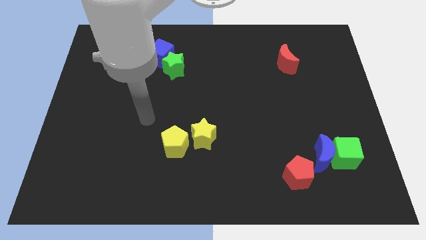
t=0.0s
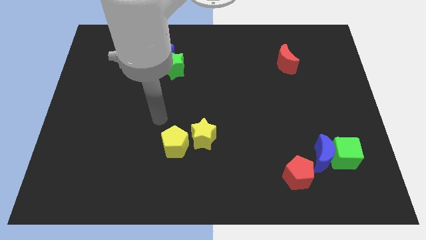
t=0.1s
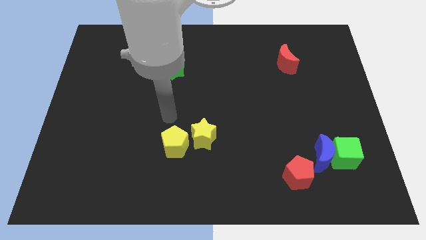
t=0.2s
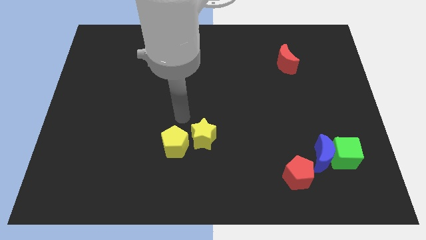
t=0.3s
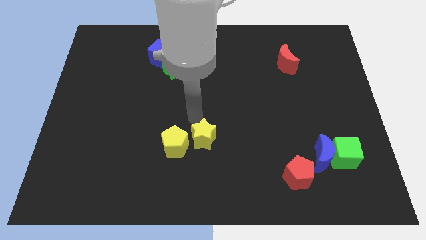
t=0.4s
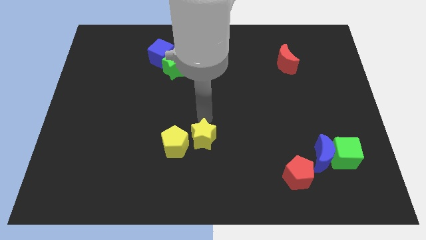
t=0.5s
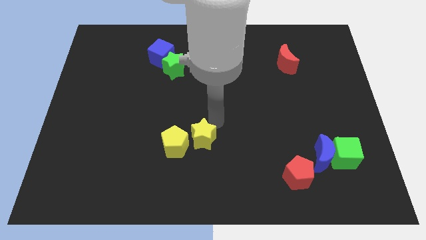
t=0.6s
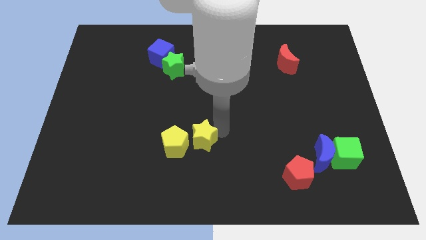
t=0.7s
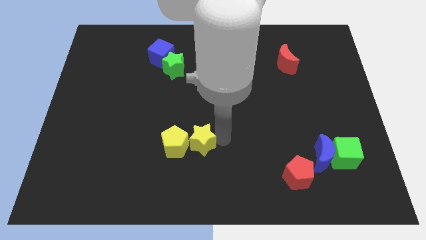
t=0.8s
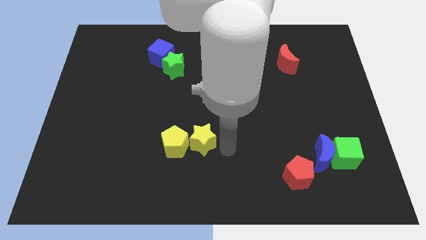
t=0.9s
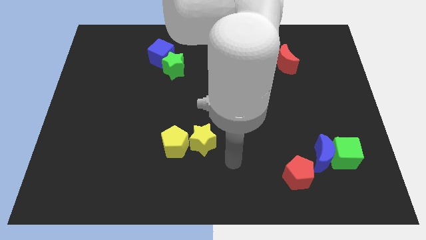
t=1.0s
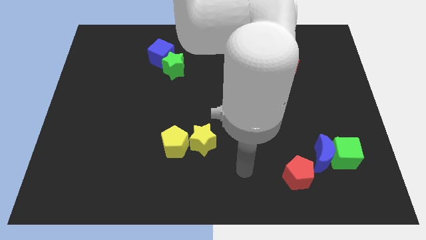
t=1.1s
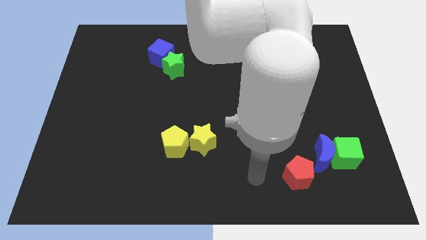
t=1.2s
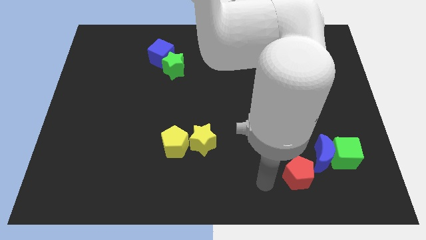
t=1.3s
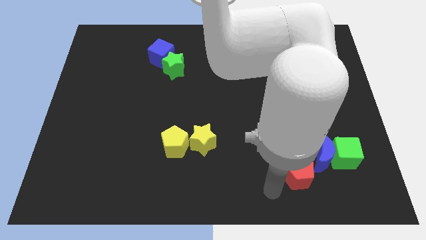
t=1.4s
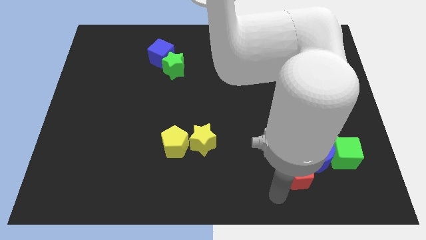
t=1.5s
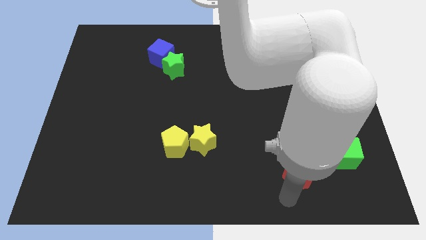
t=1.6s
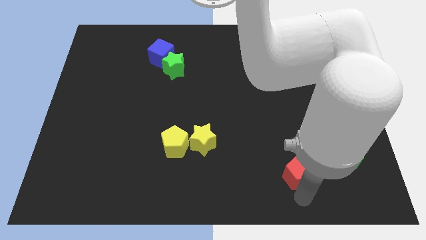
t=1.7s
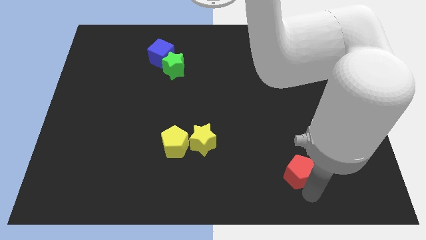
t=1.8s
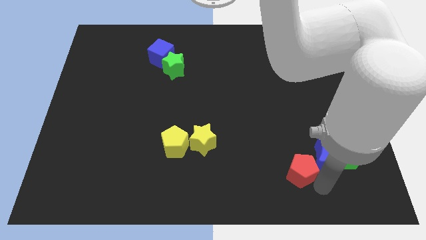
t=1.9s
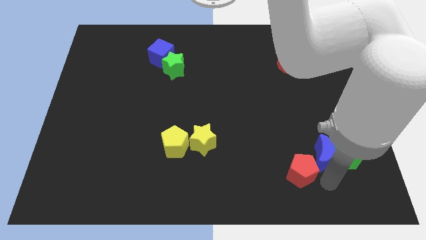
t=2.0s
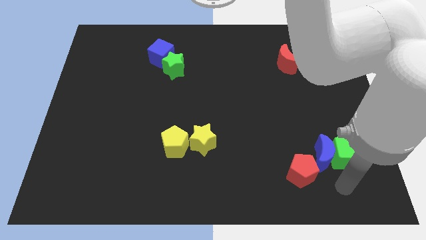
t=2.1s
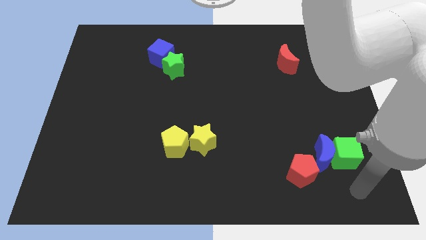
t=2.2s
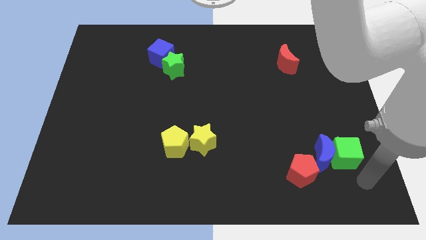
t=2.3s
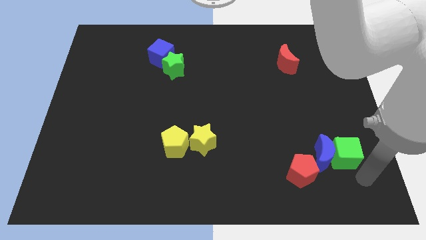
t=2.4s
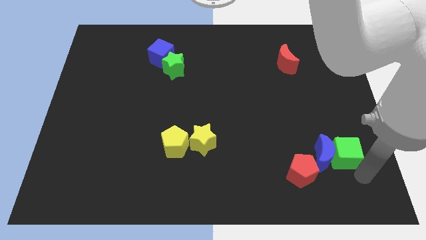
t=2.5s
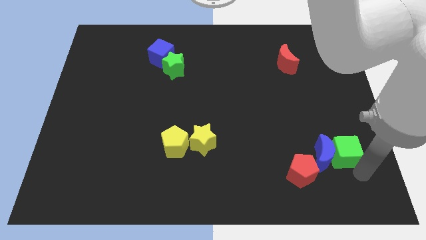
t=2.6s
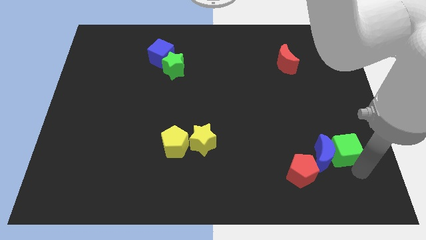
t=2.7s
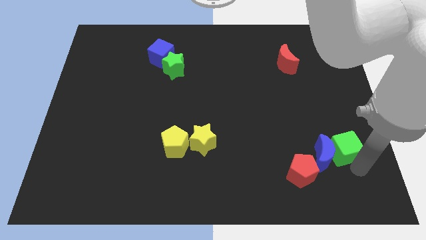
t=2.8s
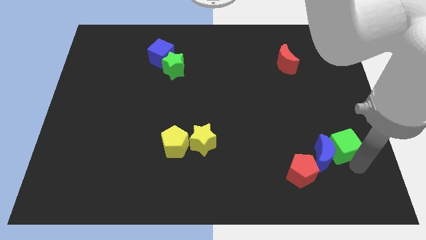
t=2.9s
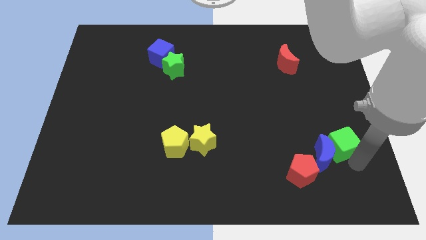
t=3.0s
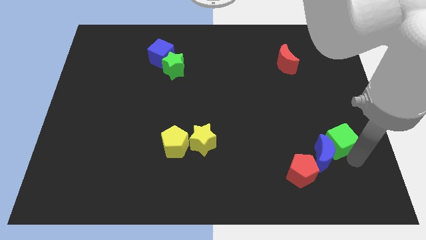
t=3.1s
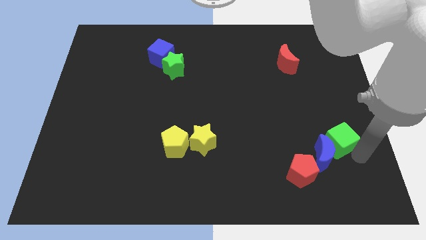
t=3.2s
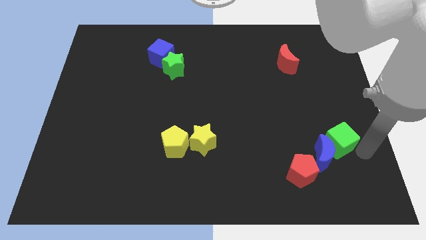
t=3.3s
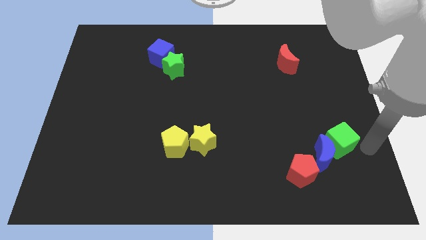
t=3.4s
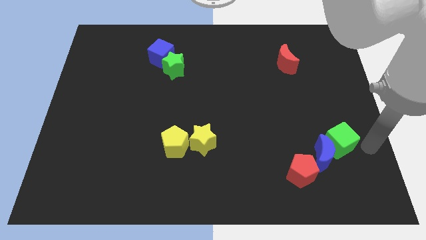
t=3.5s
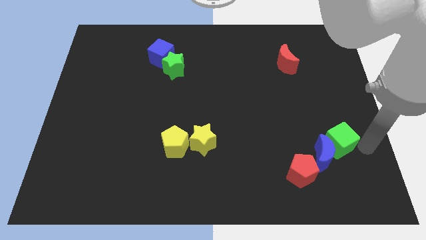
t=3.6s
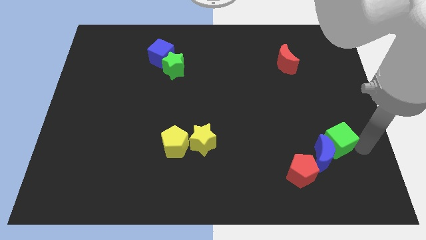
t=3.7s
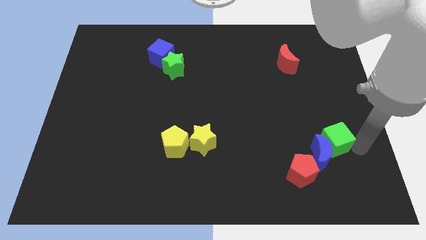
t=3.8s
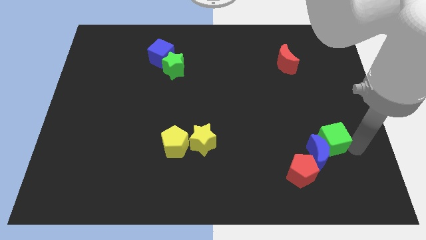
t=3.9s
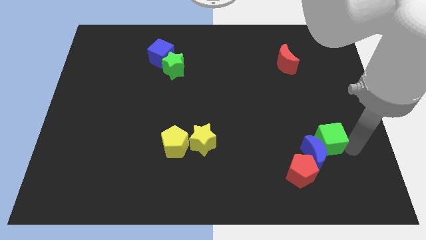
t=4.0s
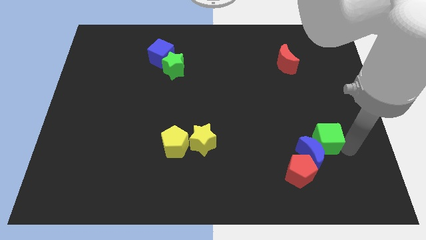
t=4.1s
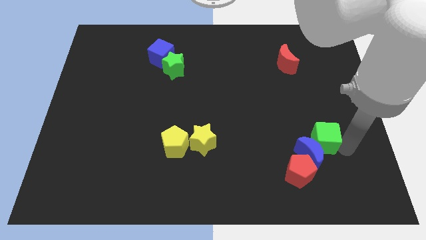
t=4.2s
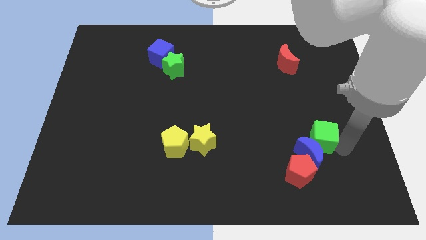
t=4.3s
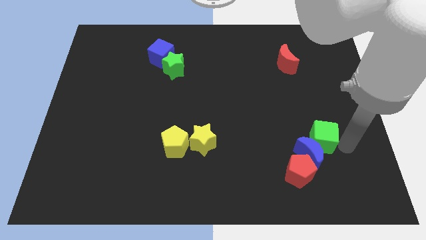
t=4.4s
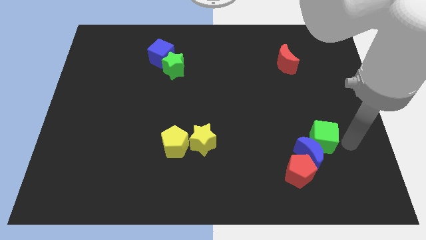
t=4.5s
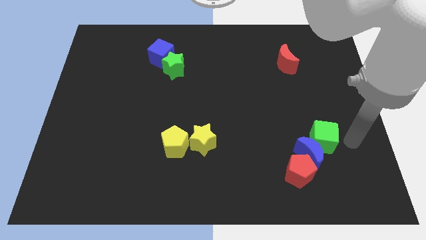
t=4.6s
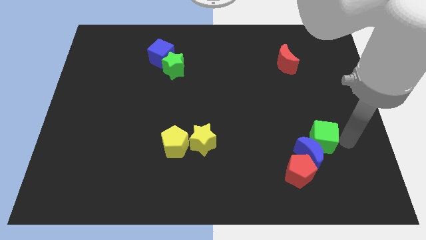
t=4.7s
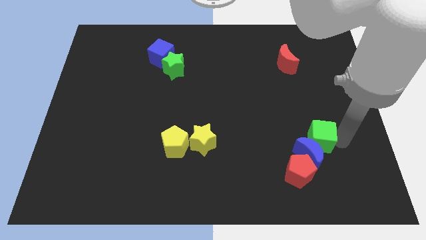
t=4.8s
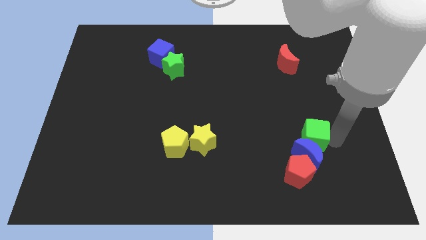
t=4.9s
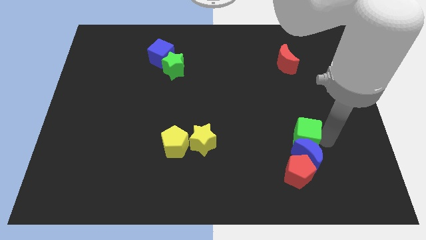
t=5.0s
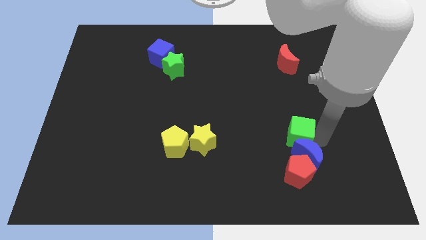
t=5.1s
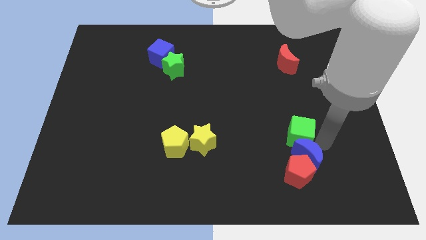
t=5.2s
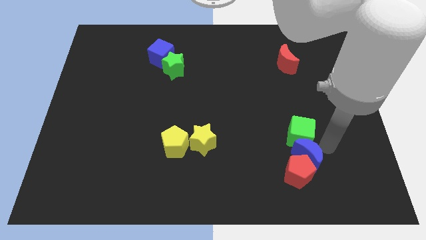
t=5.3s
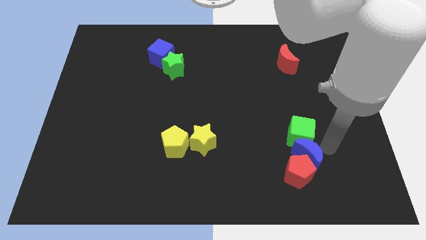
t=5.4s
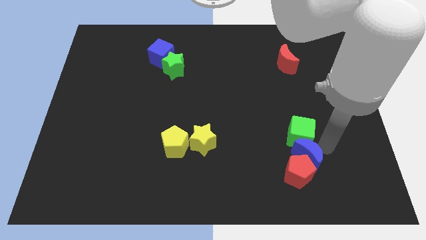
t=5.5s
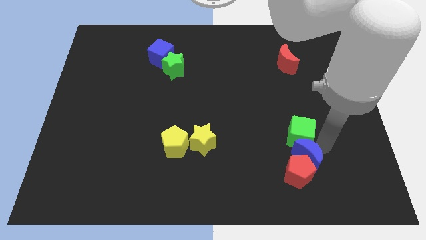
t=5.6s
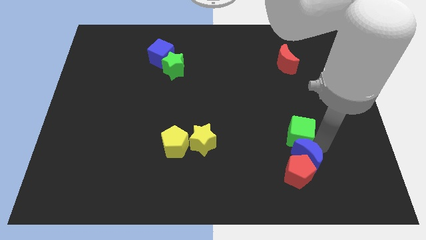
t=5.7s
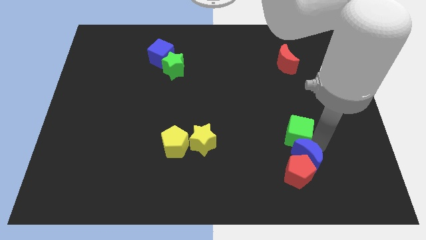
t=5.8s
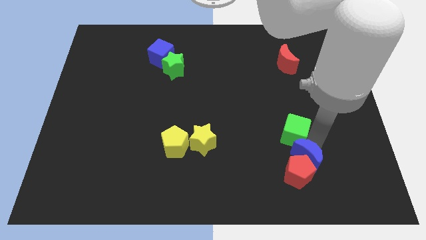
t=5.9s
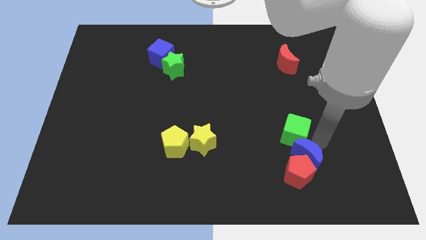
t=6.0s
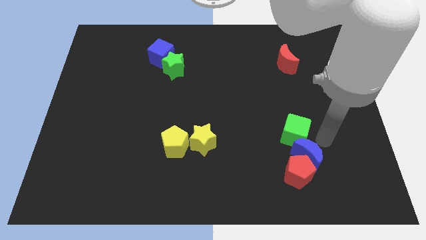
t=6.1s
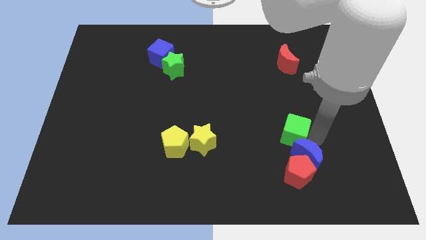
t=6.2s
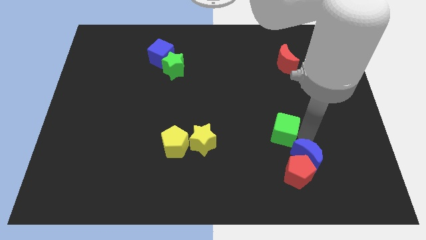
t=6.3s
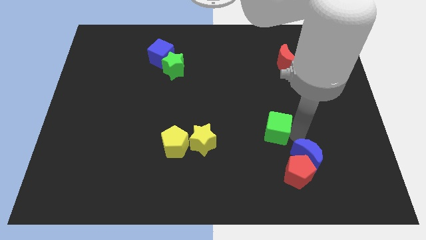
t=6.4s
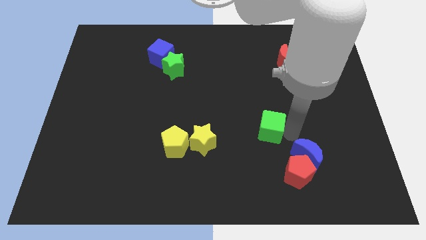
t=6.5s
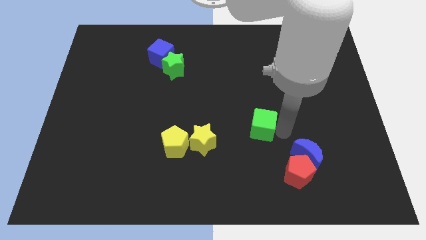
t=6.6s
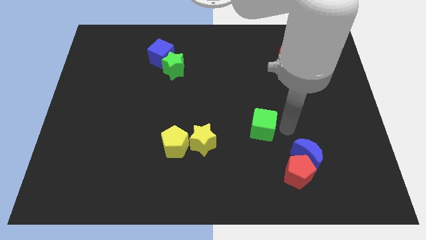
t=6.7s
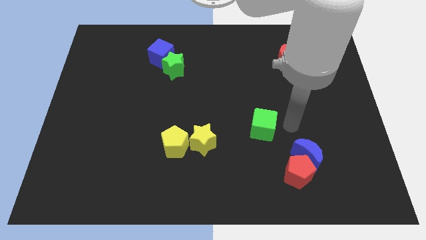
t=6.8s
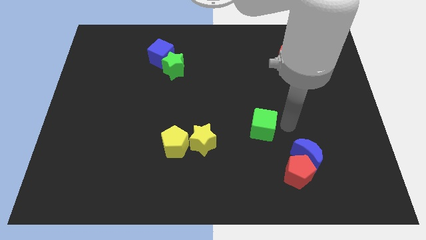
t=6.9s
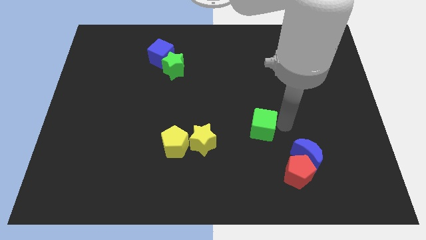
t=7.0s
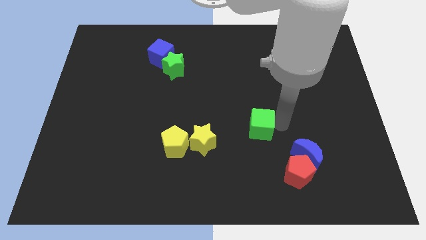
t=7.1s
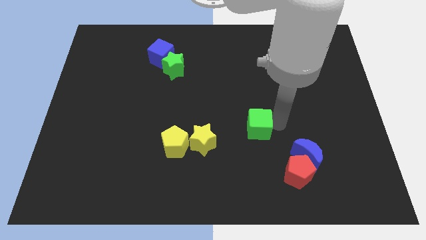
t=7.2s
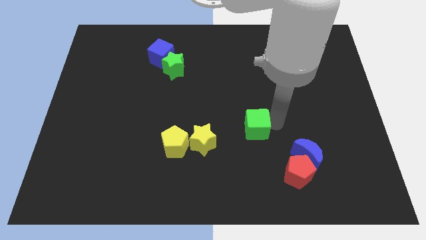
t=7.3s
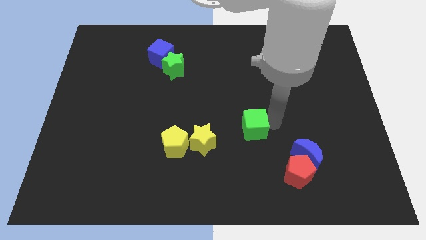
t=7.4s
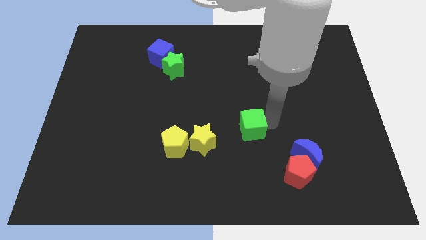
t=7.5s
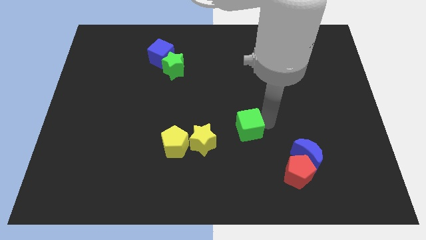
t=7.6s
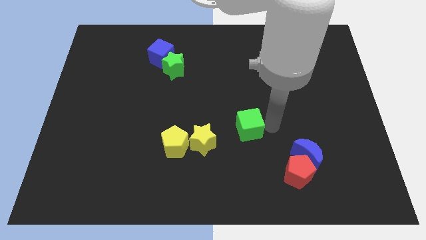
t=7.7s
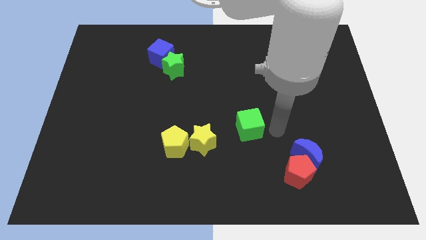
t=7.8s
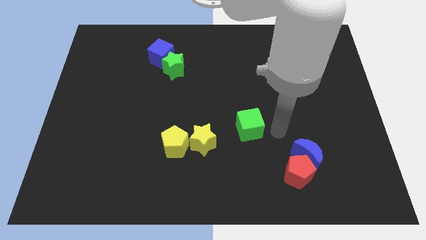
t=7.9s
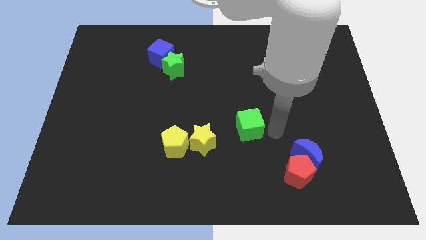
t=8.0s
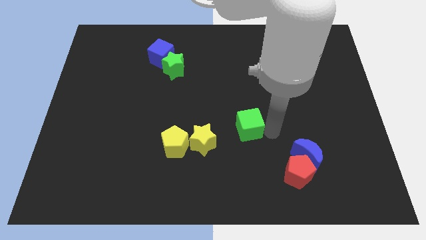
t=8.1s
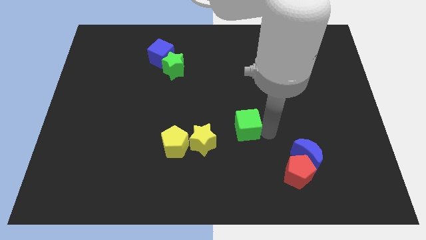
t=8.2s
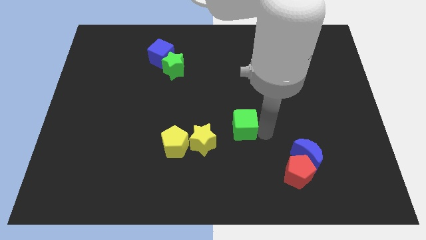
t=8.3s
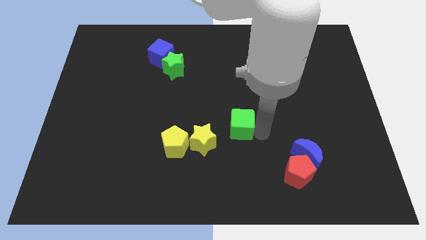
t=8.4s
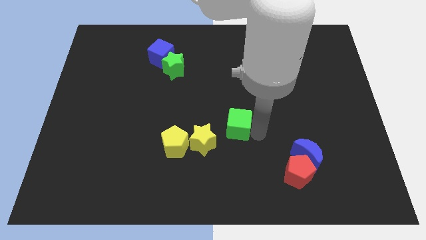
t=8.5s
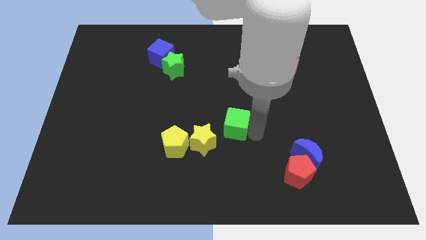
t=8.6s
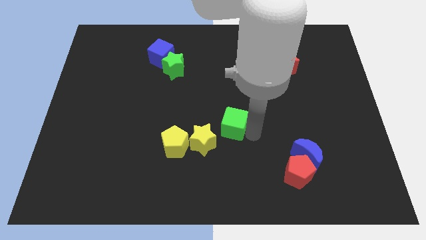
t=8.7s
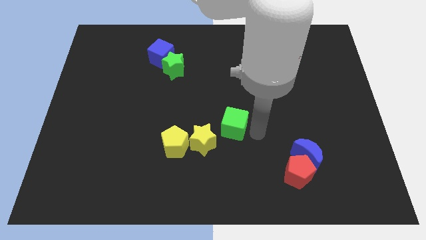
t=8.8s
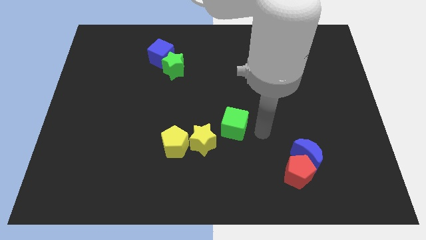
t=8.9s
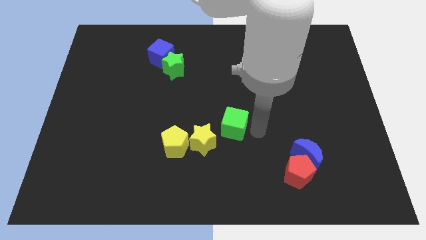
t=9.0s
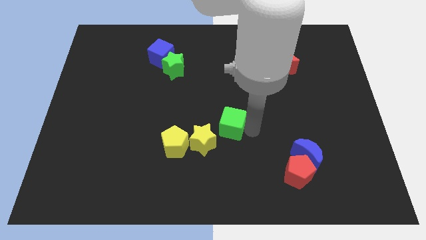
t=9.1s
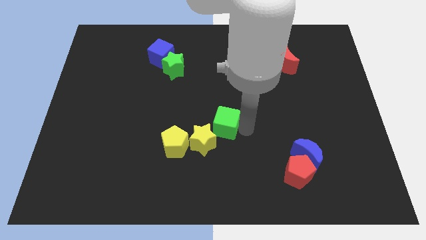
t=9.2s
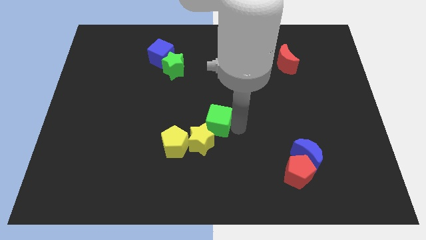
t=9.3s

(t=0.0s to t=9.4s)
put the green cube to the top right side of the yellow pentagon
